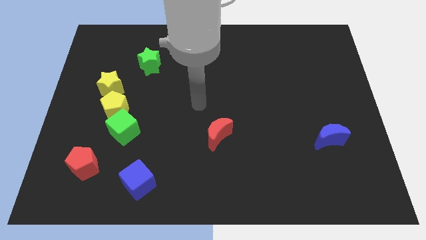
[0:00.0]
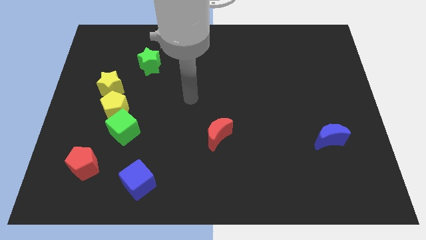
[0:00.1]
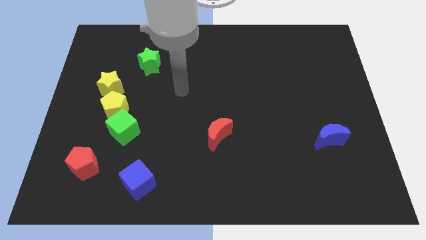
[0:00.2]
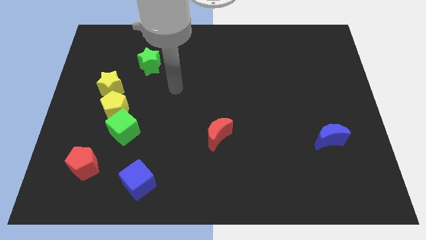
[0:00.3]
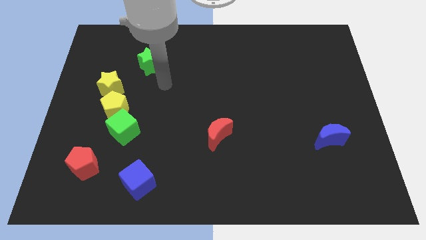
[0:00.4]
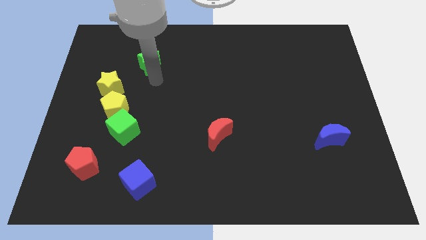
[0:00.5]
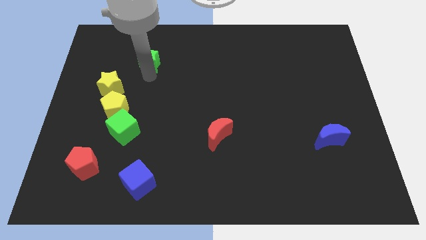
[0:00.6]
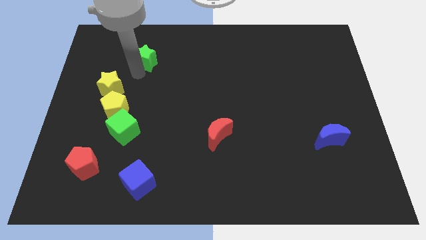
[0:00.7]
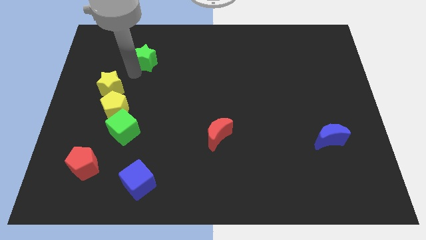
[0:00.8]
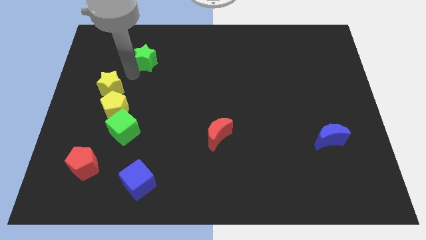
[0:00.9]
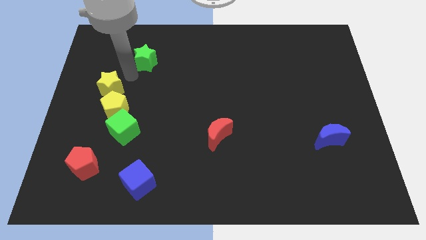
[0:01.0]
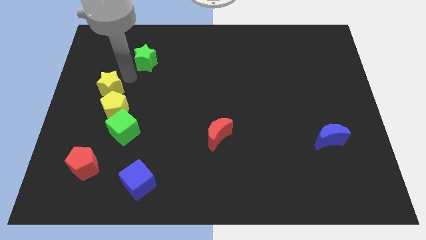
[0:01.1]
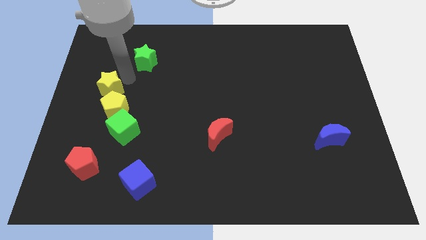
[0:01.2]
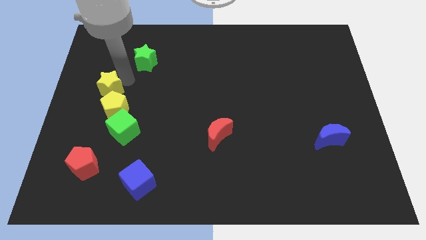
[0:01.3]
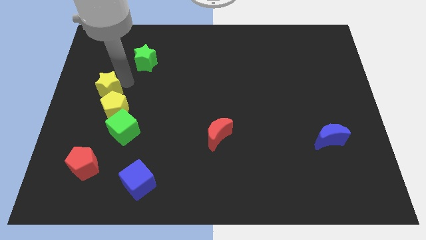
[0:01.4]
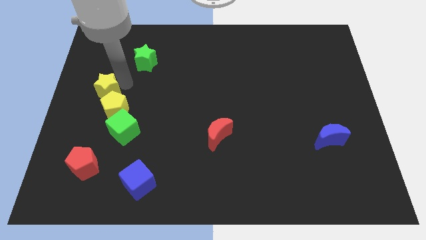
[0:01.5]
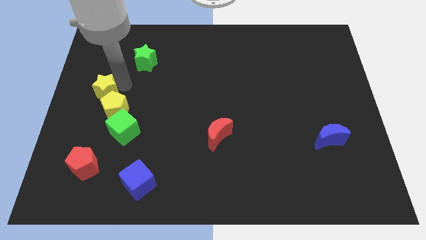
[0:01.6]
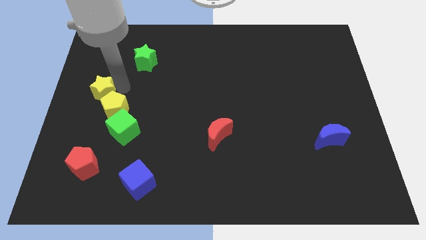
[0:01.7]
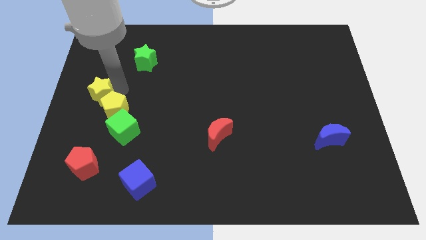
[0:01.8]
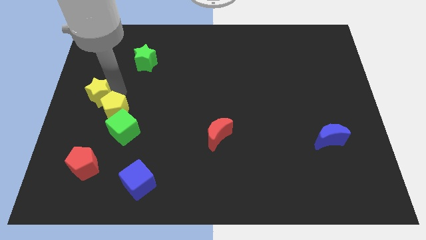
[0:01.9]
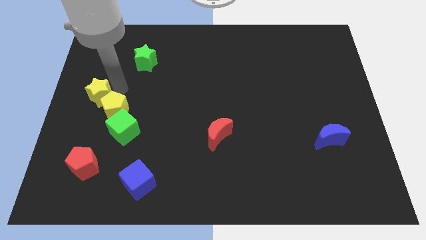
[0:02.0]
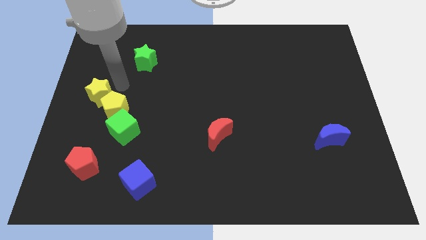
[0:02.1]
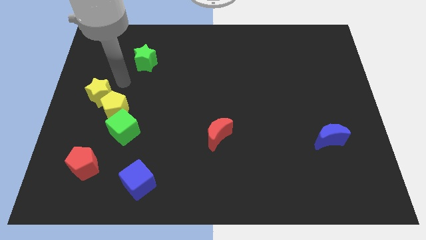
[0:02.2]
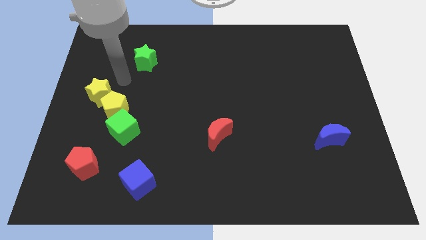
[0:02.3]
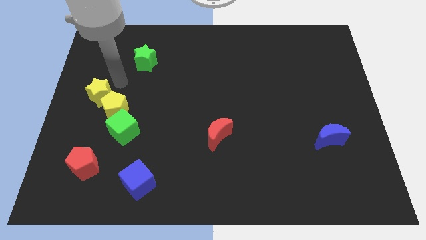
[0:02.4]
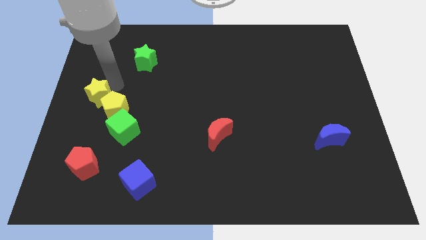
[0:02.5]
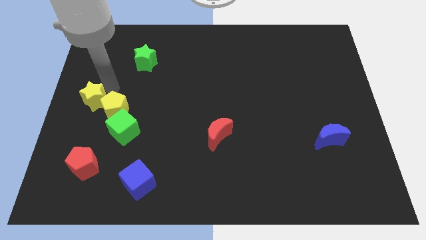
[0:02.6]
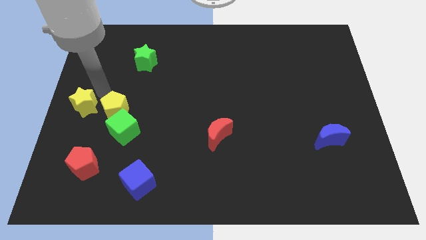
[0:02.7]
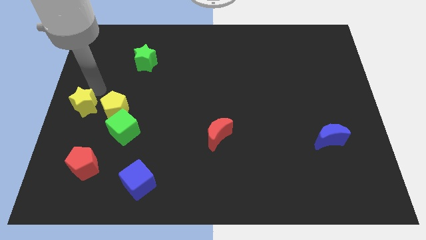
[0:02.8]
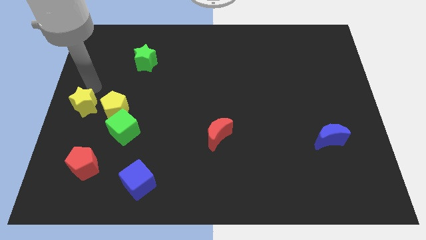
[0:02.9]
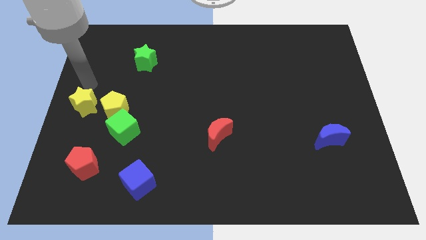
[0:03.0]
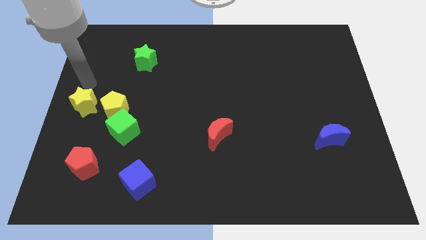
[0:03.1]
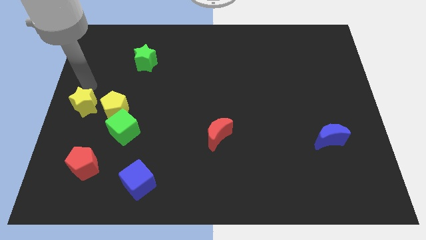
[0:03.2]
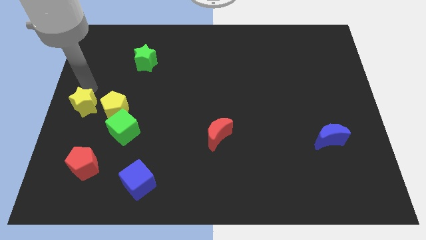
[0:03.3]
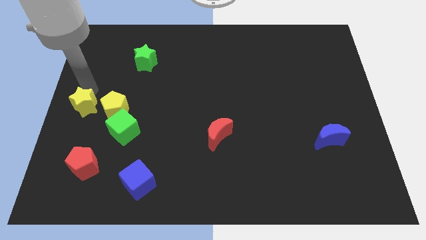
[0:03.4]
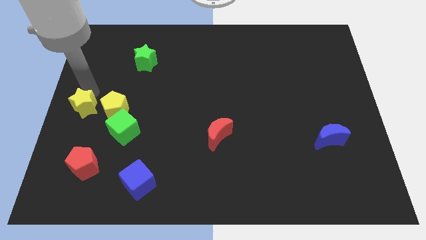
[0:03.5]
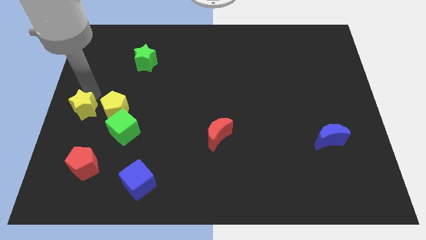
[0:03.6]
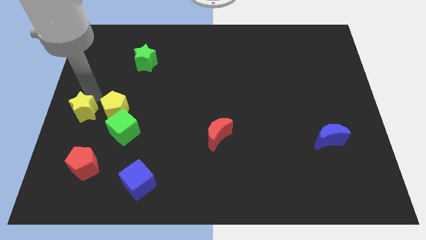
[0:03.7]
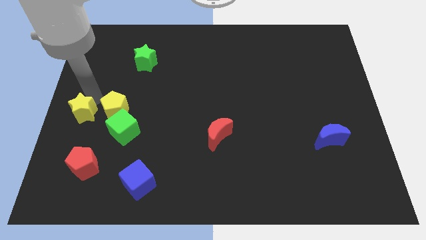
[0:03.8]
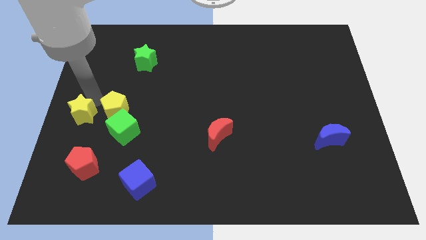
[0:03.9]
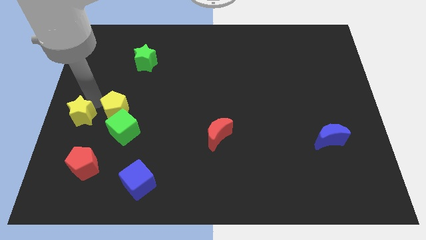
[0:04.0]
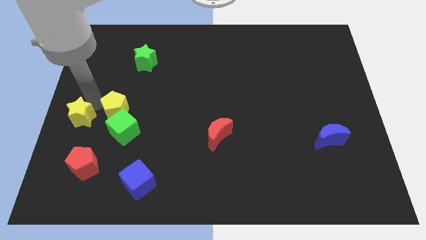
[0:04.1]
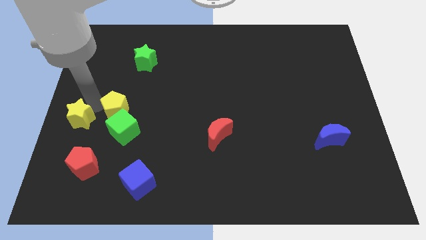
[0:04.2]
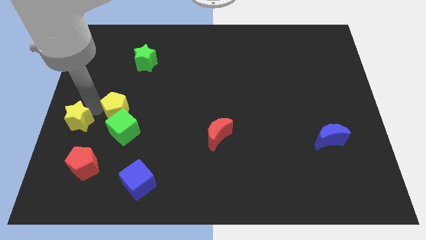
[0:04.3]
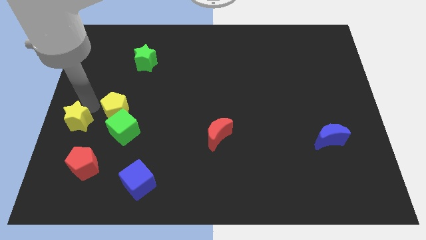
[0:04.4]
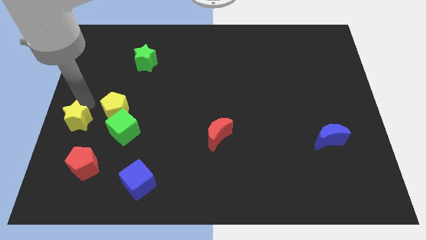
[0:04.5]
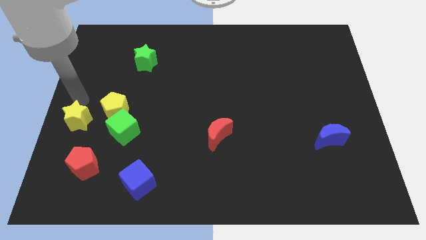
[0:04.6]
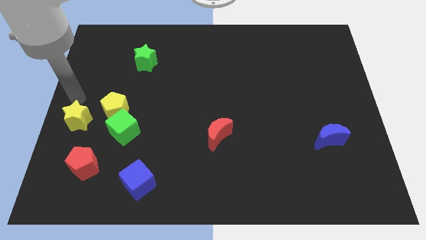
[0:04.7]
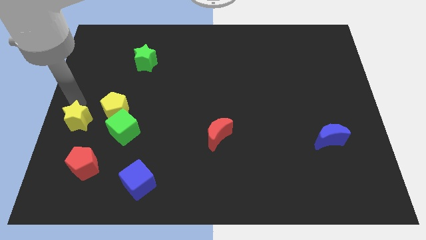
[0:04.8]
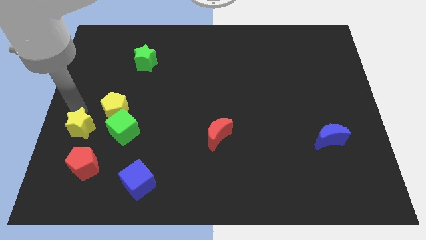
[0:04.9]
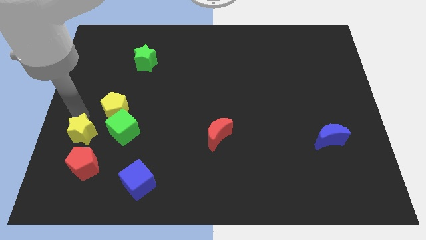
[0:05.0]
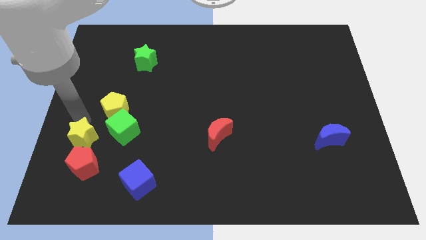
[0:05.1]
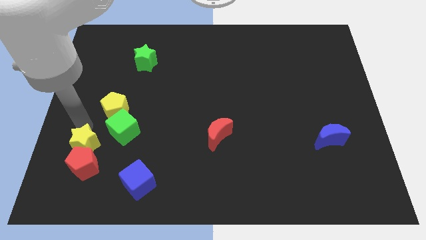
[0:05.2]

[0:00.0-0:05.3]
move the yellow star to the red pentagon

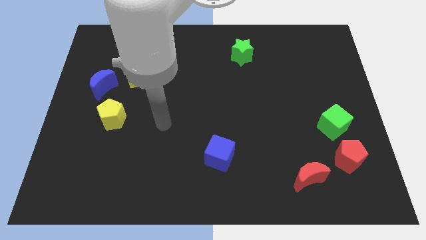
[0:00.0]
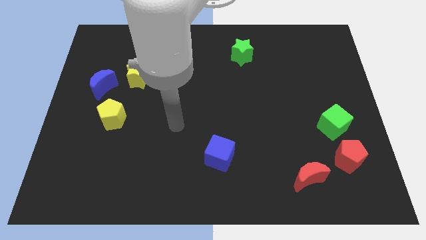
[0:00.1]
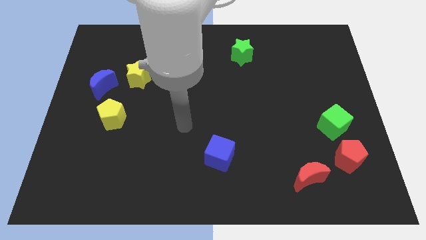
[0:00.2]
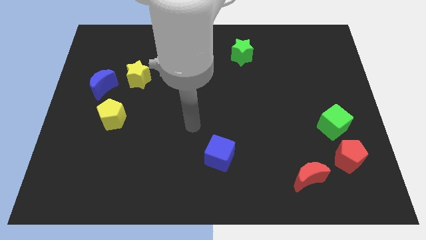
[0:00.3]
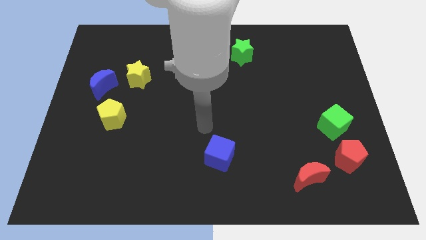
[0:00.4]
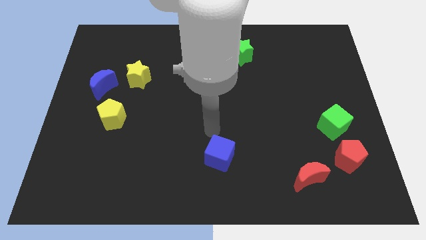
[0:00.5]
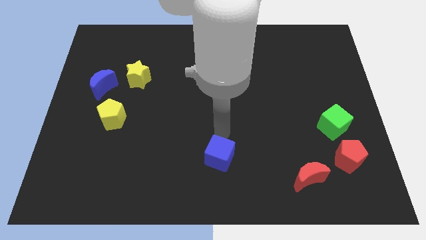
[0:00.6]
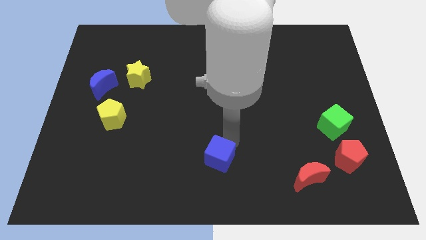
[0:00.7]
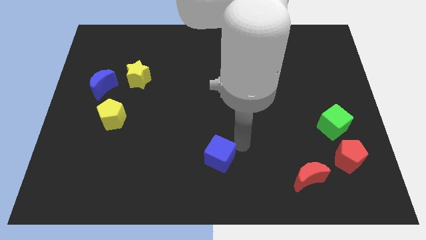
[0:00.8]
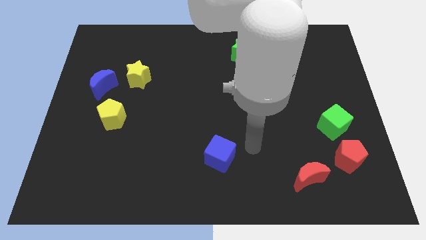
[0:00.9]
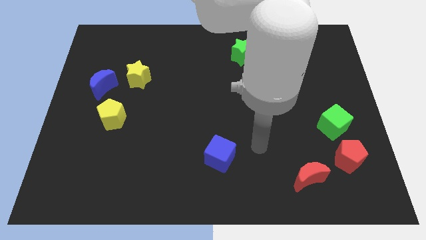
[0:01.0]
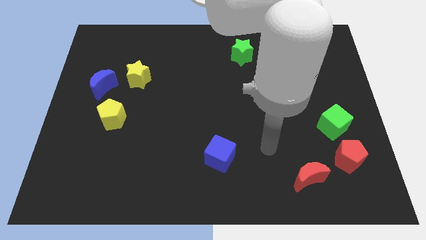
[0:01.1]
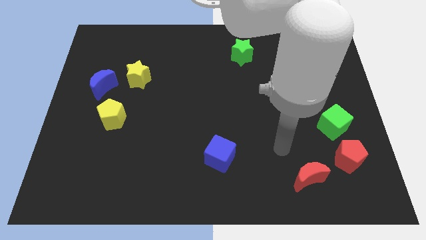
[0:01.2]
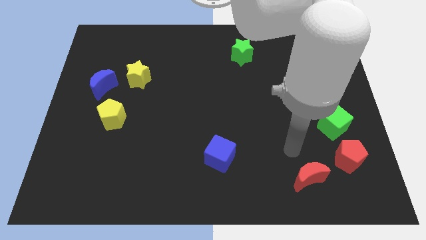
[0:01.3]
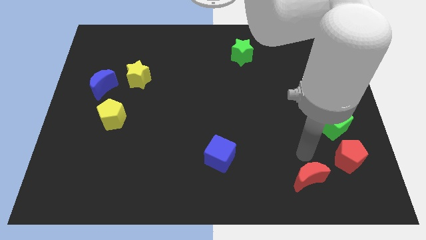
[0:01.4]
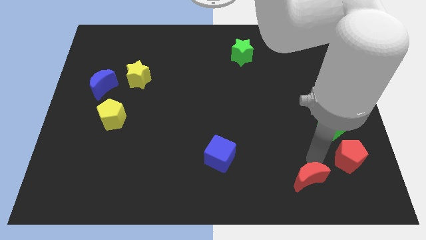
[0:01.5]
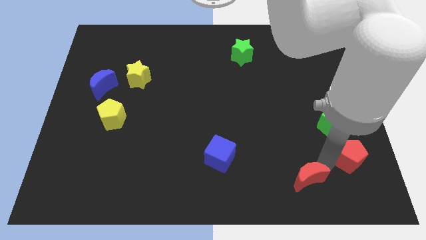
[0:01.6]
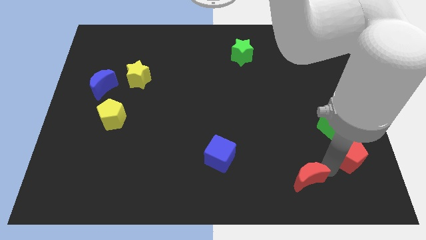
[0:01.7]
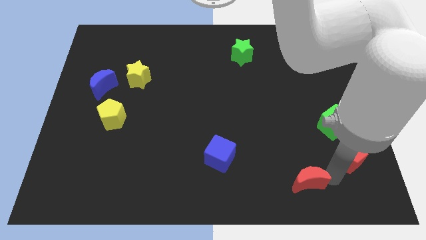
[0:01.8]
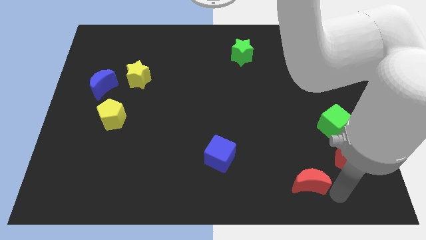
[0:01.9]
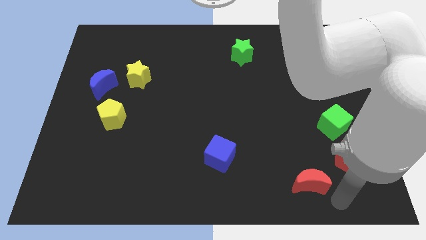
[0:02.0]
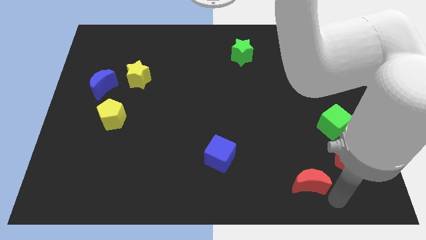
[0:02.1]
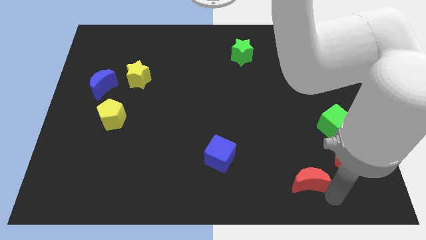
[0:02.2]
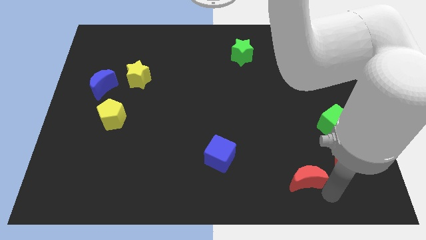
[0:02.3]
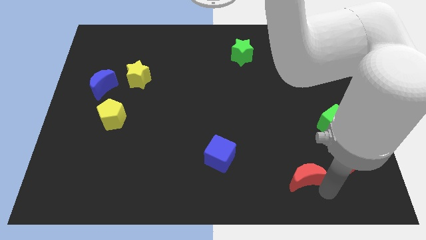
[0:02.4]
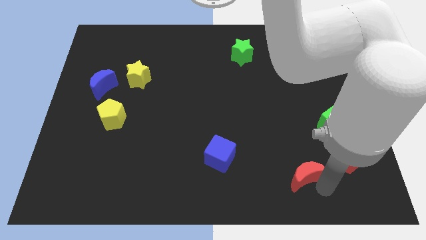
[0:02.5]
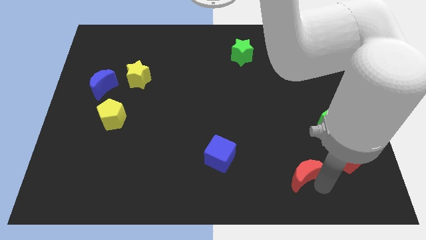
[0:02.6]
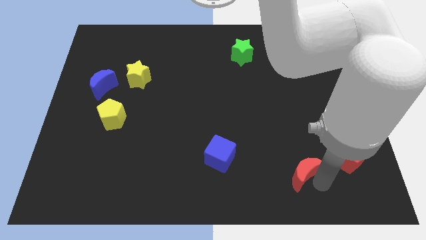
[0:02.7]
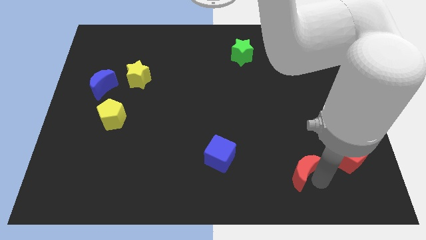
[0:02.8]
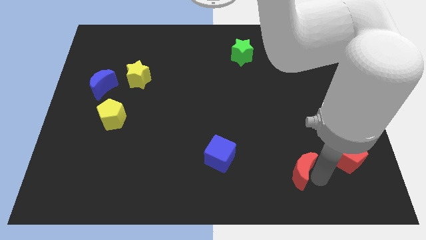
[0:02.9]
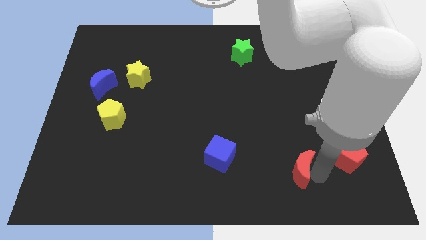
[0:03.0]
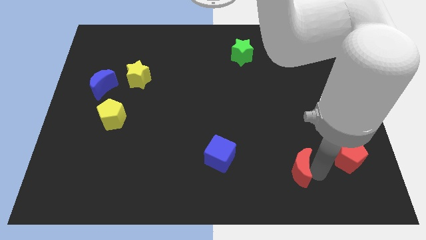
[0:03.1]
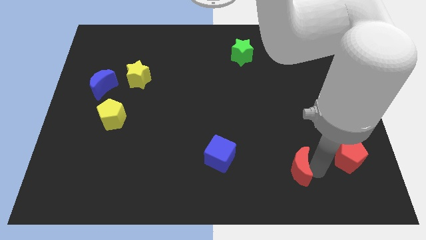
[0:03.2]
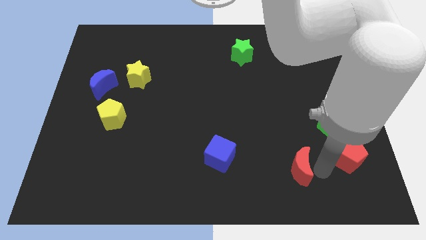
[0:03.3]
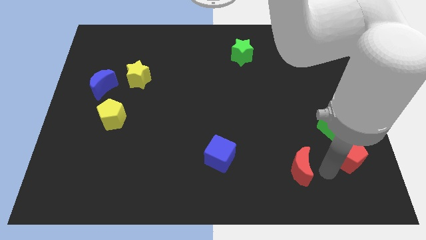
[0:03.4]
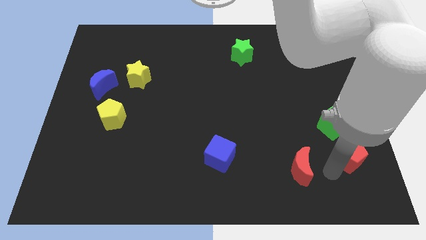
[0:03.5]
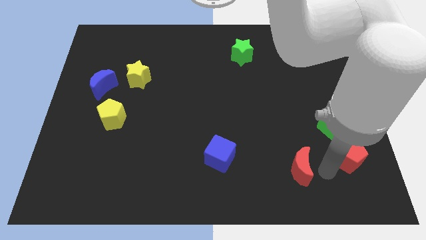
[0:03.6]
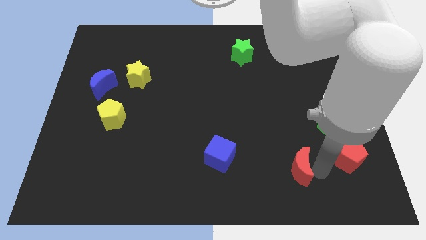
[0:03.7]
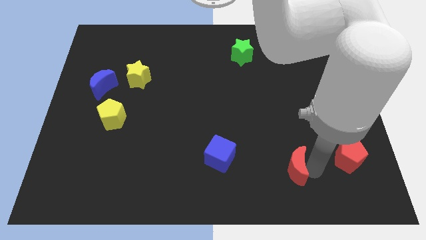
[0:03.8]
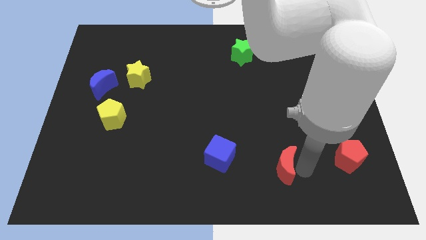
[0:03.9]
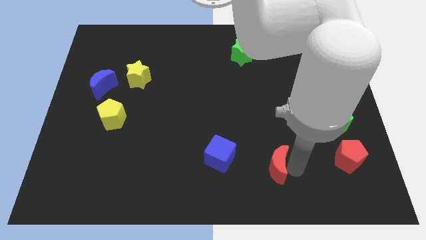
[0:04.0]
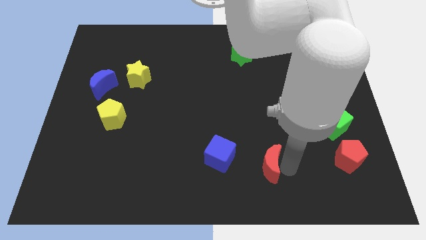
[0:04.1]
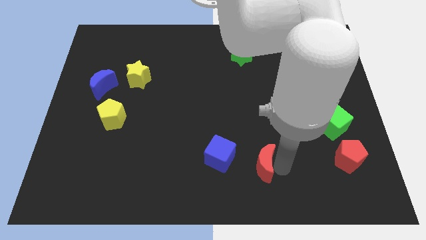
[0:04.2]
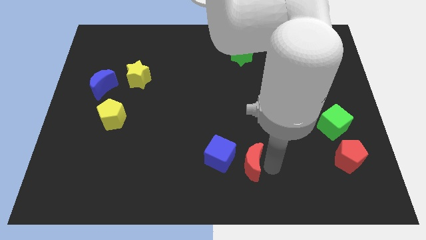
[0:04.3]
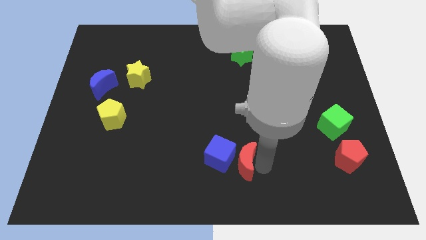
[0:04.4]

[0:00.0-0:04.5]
slide the red moon to the blue cube
